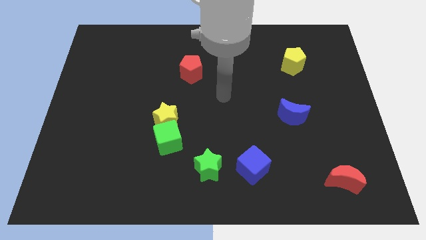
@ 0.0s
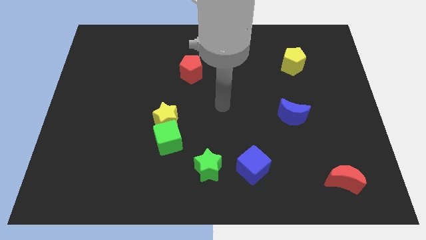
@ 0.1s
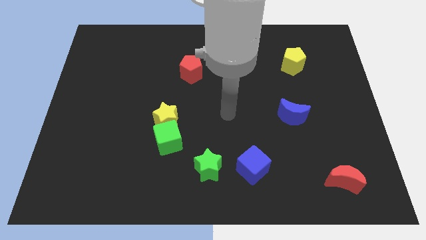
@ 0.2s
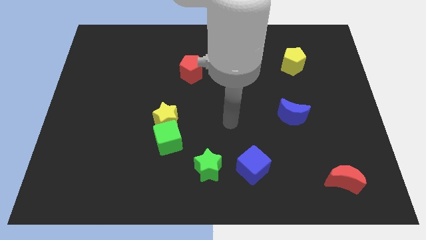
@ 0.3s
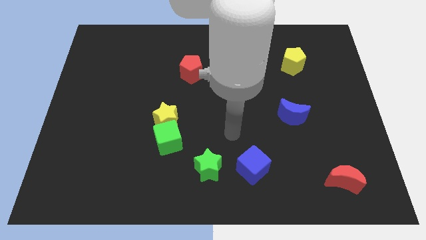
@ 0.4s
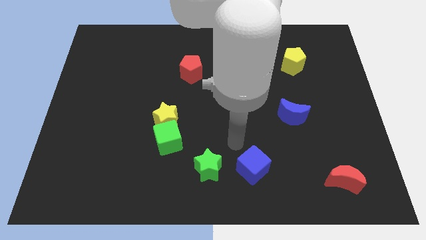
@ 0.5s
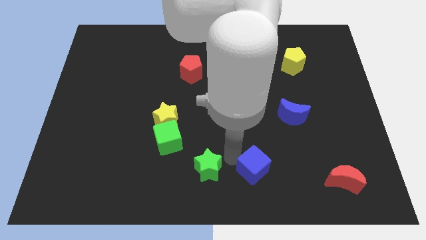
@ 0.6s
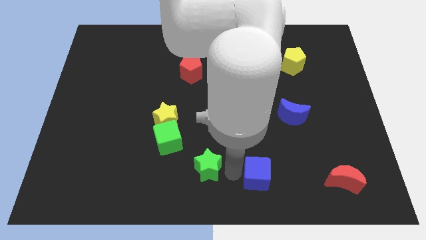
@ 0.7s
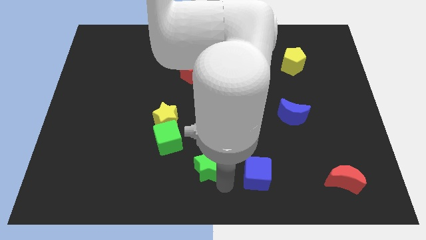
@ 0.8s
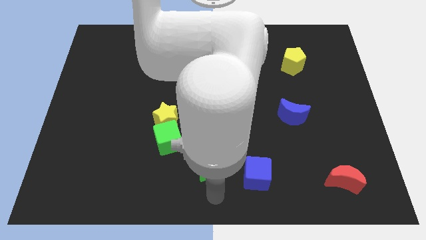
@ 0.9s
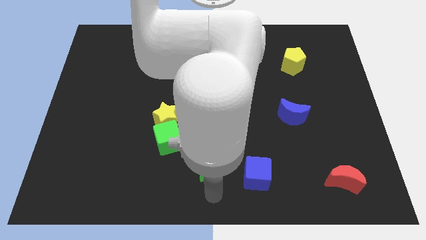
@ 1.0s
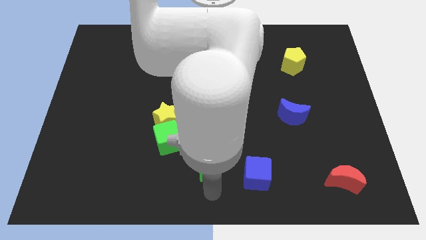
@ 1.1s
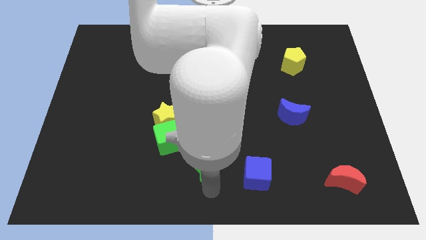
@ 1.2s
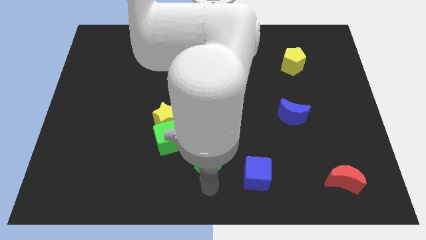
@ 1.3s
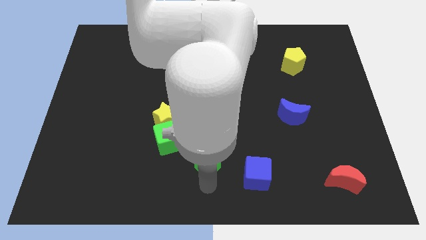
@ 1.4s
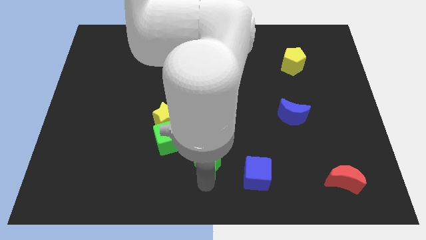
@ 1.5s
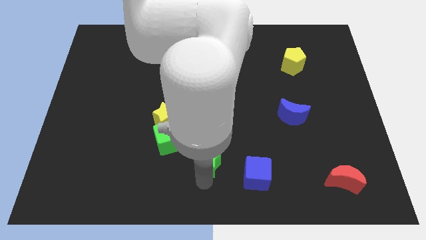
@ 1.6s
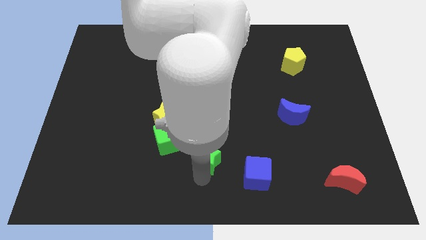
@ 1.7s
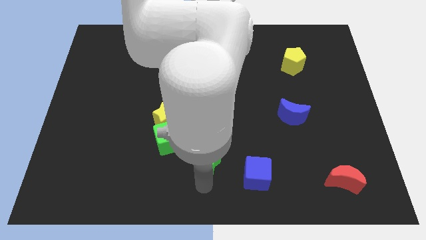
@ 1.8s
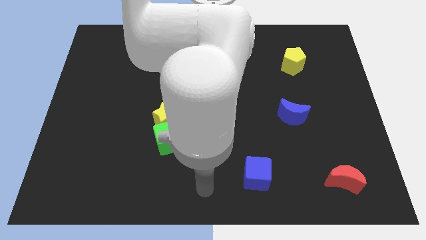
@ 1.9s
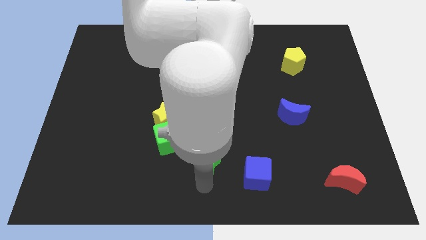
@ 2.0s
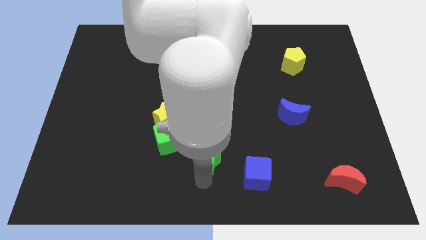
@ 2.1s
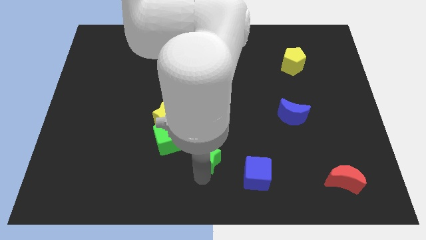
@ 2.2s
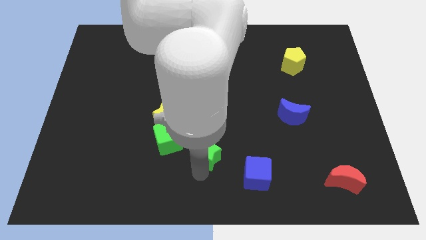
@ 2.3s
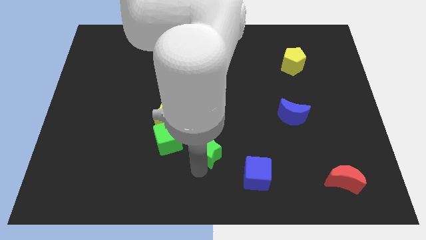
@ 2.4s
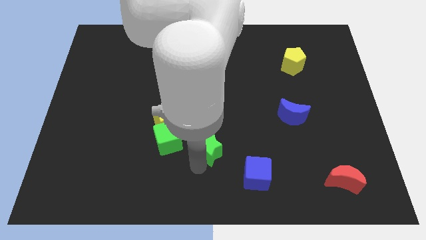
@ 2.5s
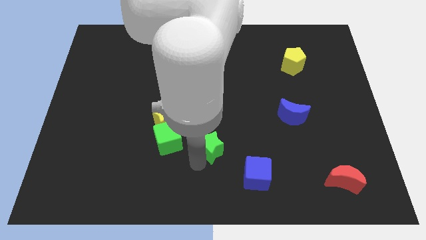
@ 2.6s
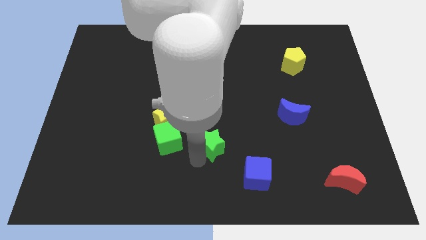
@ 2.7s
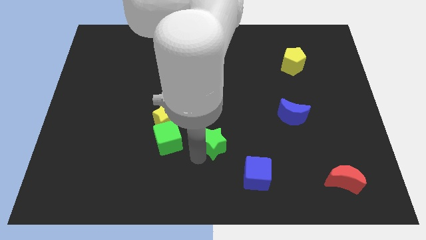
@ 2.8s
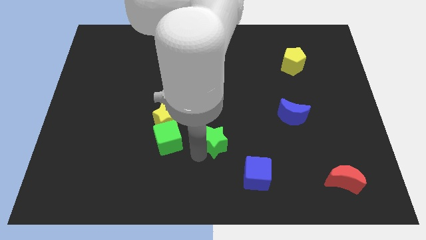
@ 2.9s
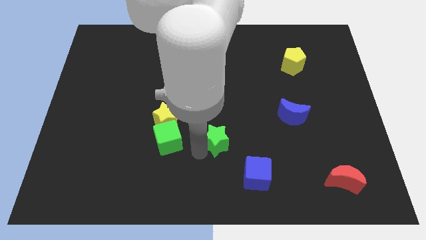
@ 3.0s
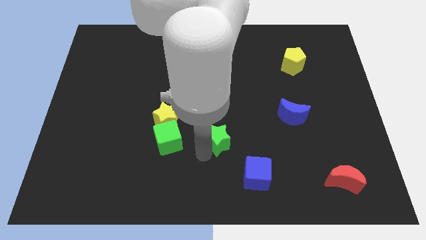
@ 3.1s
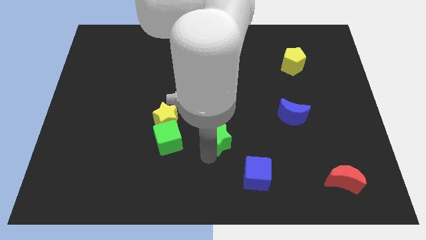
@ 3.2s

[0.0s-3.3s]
push the green star up a little bit

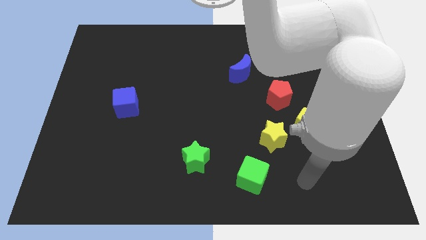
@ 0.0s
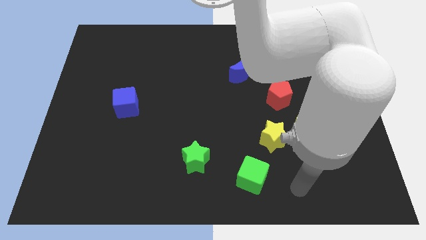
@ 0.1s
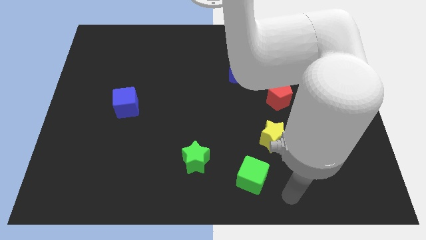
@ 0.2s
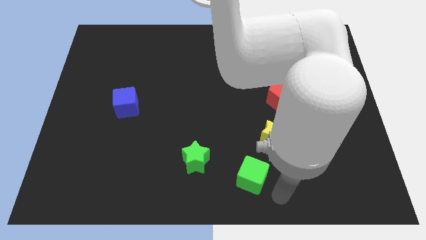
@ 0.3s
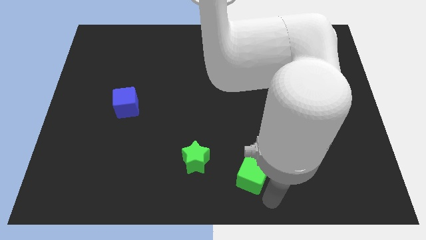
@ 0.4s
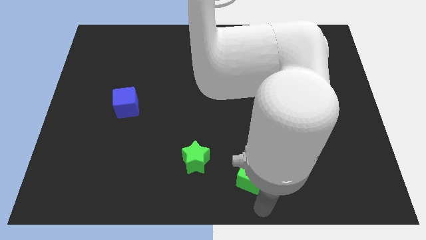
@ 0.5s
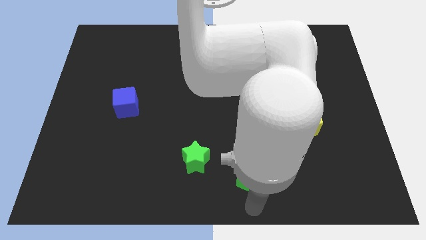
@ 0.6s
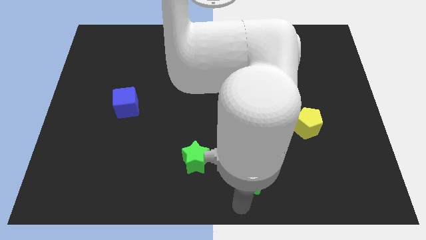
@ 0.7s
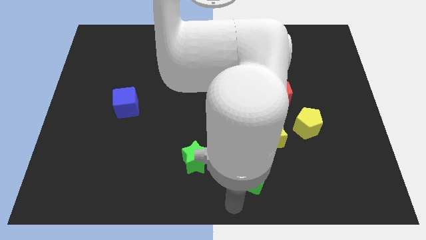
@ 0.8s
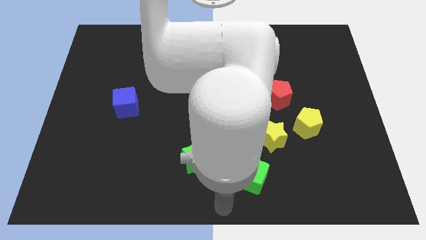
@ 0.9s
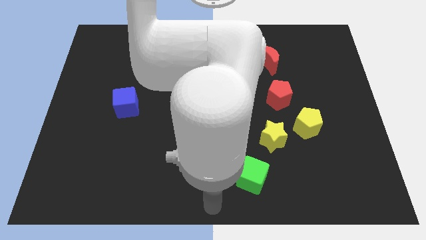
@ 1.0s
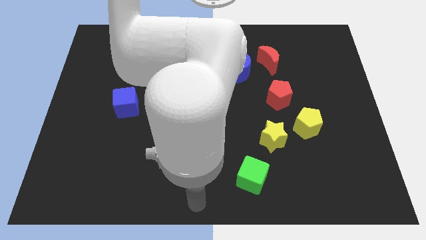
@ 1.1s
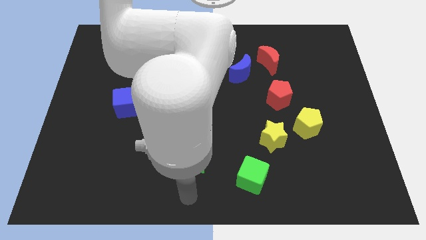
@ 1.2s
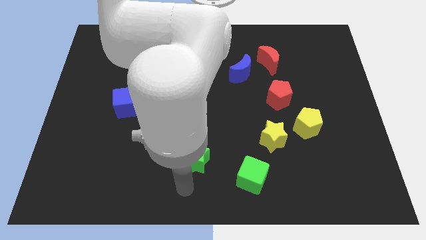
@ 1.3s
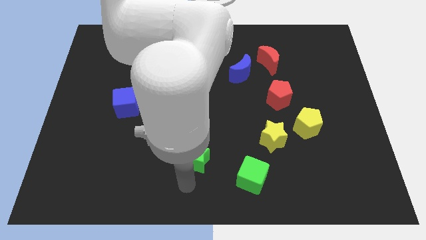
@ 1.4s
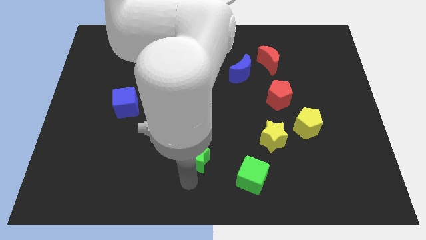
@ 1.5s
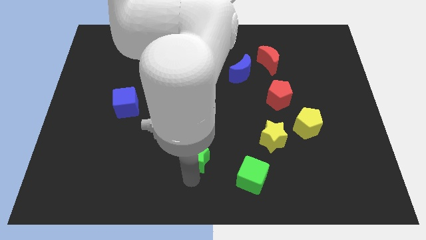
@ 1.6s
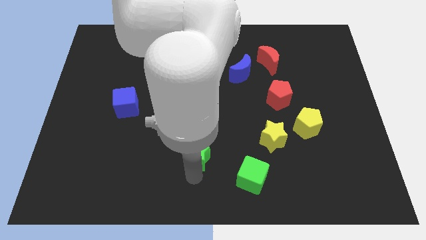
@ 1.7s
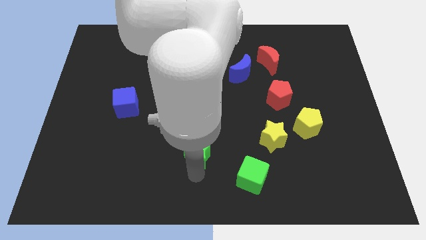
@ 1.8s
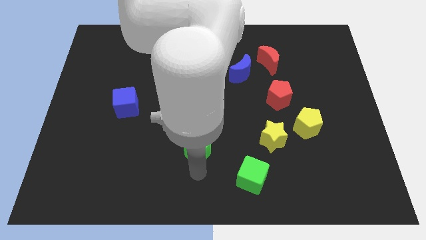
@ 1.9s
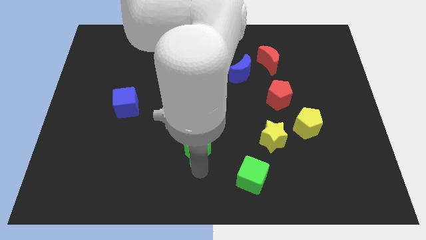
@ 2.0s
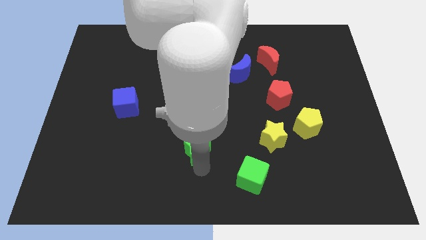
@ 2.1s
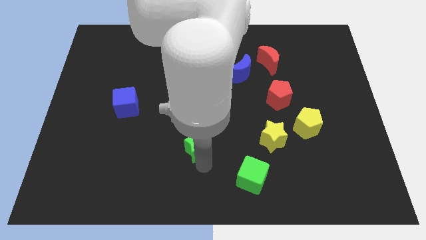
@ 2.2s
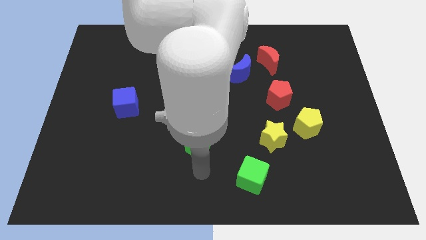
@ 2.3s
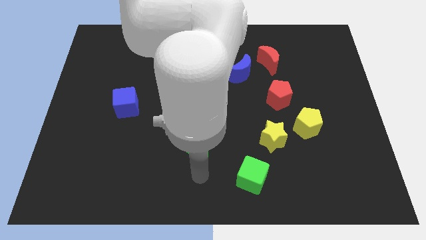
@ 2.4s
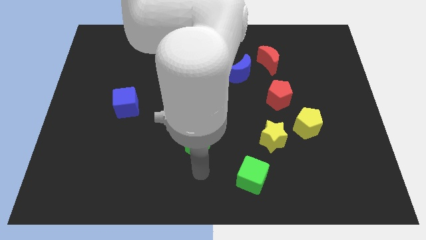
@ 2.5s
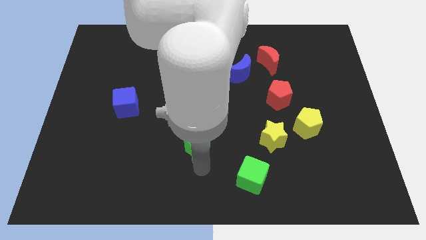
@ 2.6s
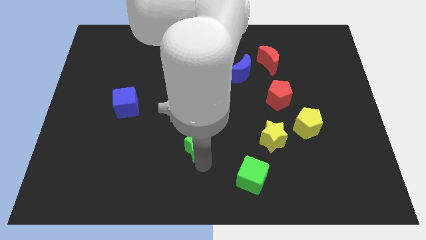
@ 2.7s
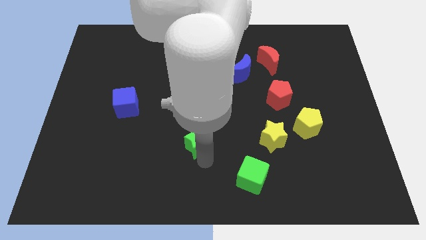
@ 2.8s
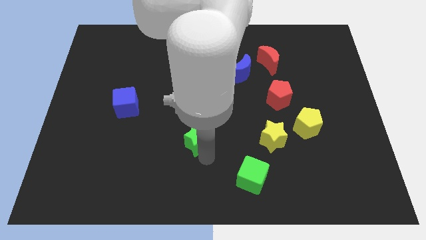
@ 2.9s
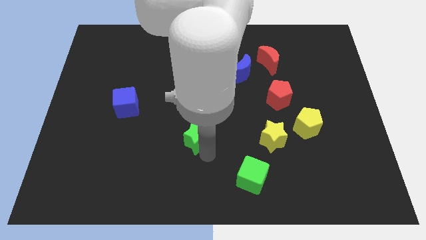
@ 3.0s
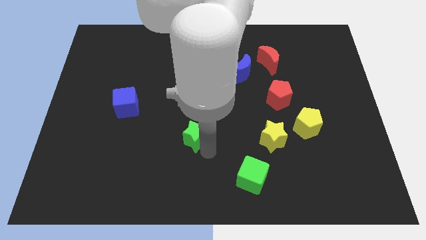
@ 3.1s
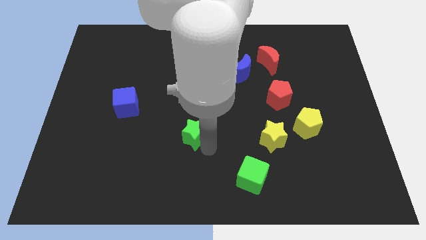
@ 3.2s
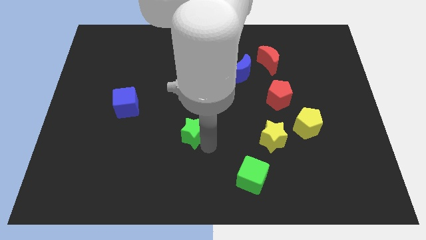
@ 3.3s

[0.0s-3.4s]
slightly move the green star up

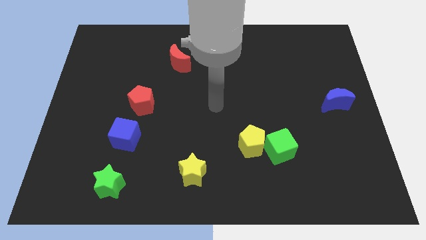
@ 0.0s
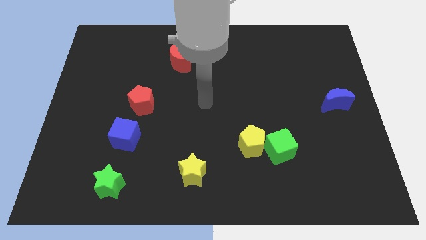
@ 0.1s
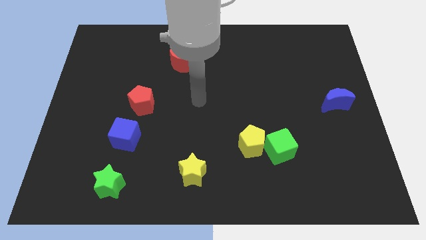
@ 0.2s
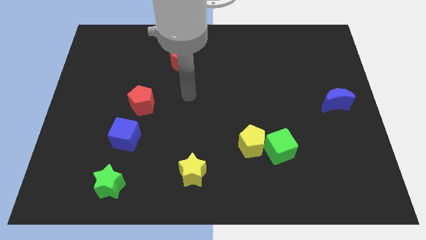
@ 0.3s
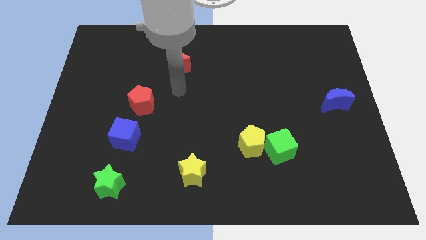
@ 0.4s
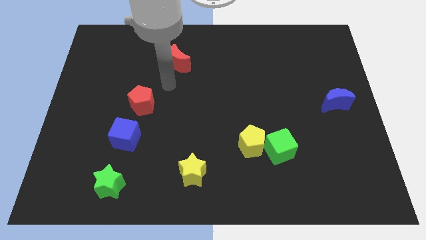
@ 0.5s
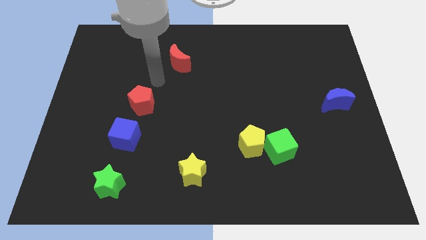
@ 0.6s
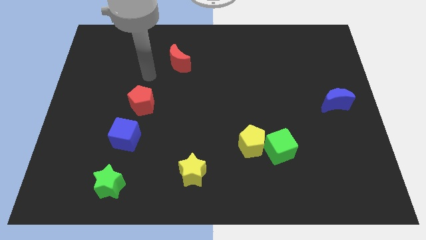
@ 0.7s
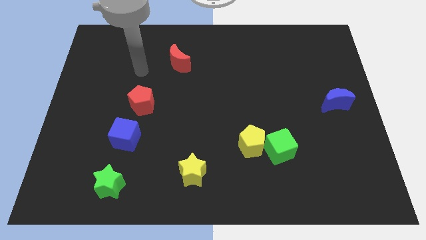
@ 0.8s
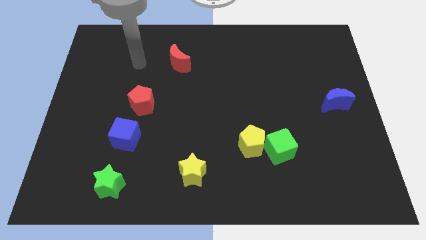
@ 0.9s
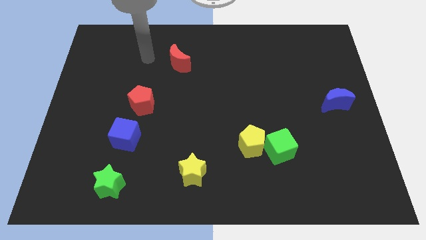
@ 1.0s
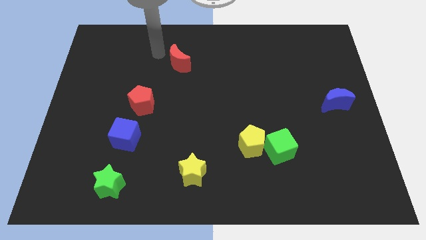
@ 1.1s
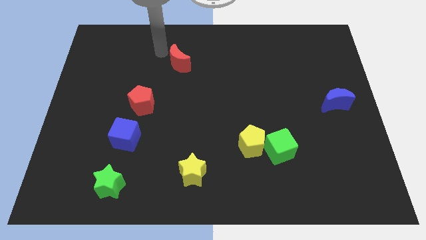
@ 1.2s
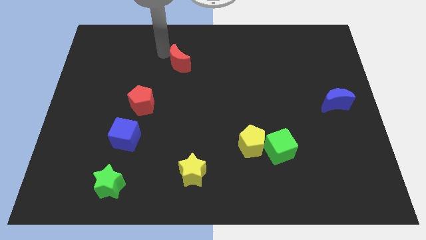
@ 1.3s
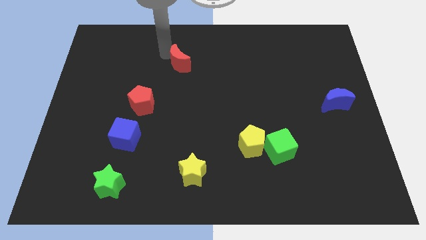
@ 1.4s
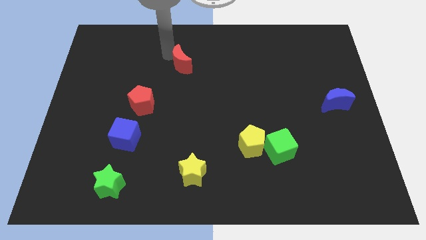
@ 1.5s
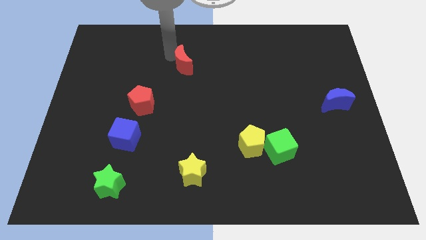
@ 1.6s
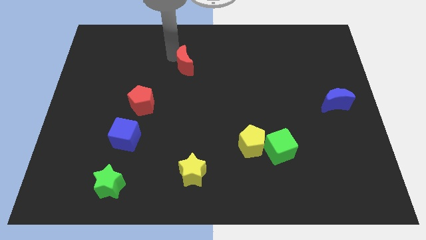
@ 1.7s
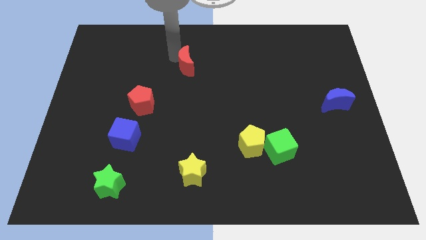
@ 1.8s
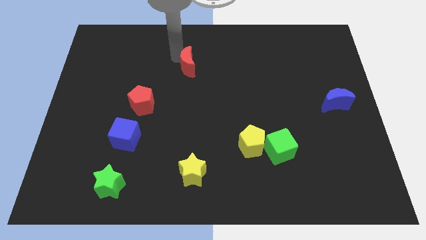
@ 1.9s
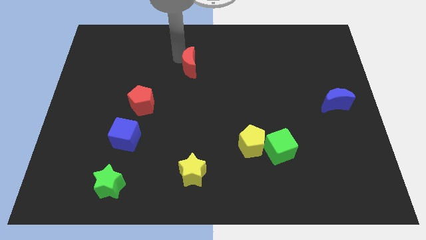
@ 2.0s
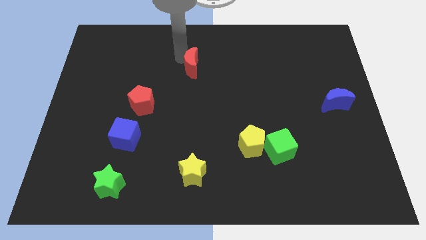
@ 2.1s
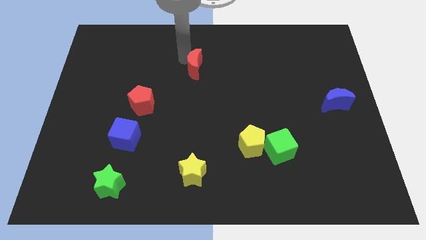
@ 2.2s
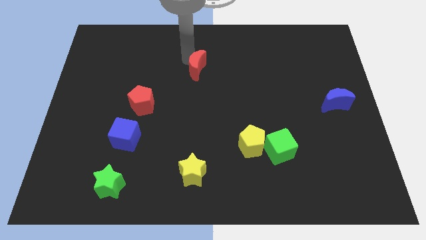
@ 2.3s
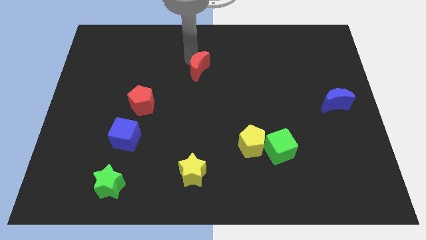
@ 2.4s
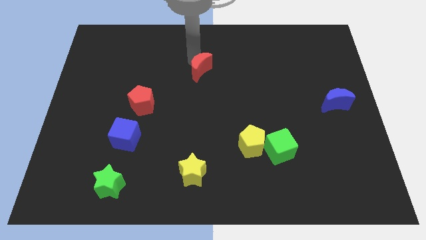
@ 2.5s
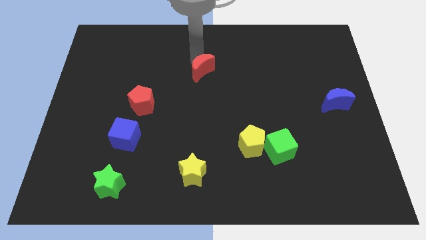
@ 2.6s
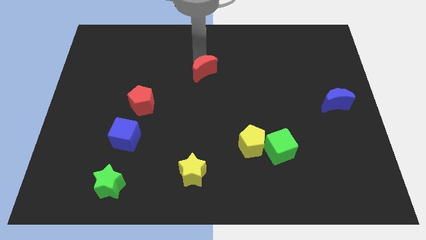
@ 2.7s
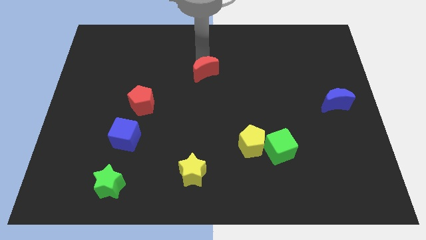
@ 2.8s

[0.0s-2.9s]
push the red moon down and to the right a little
